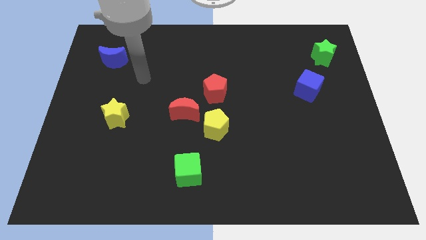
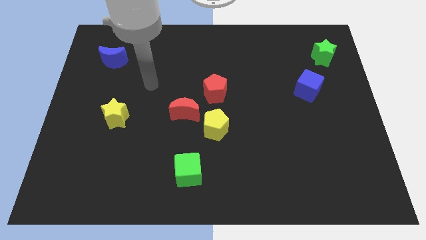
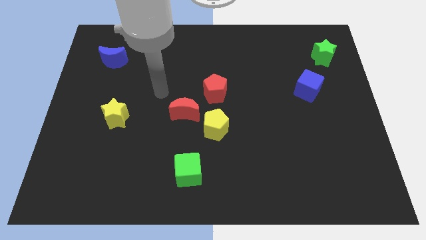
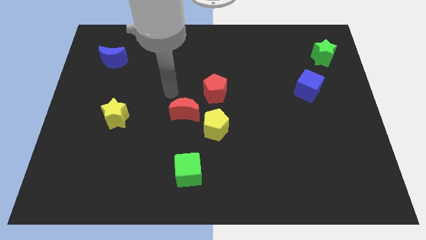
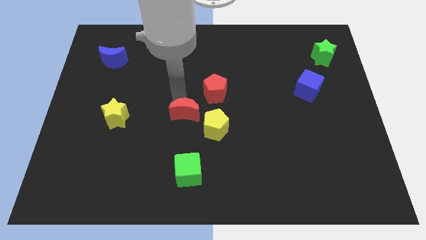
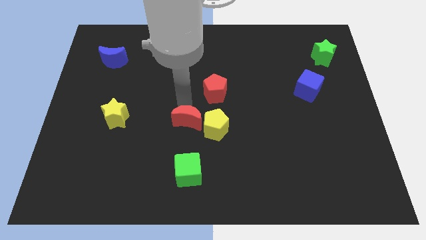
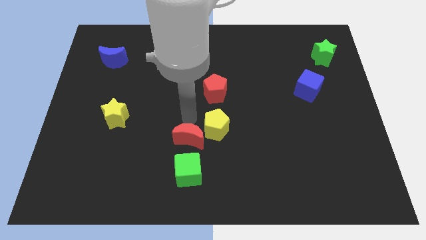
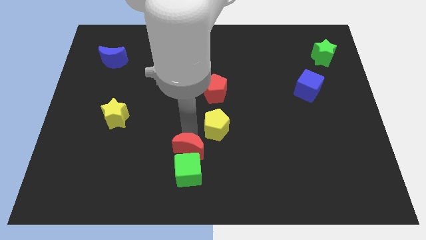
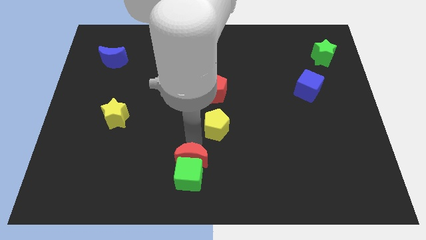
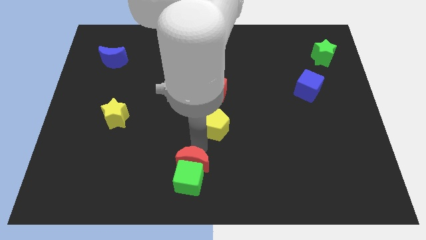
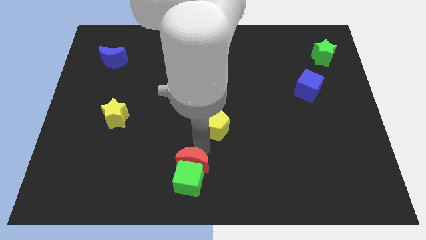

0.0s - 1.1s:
pull the yellow pentagon apart from the red moon

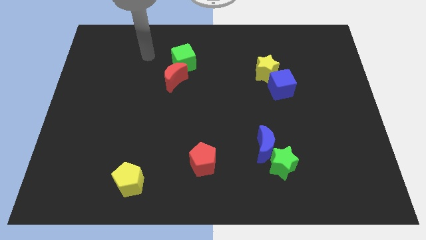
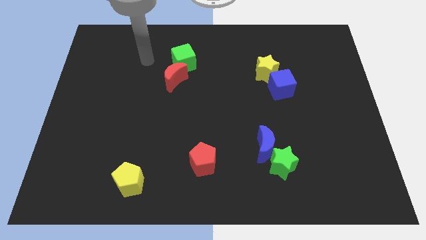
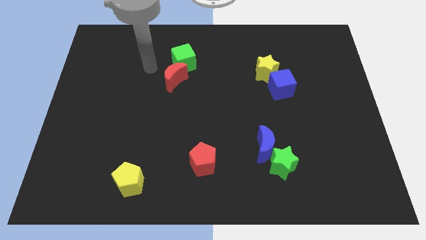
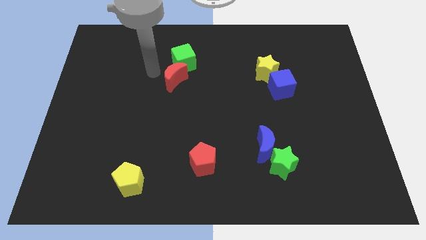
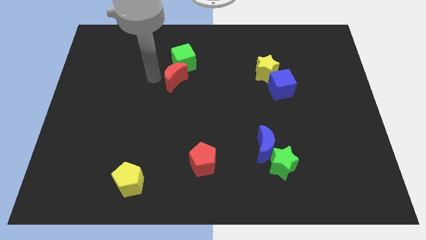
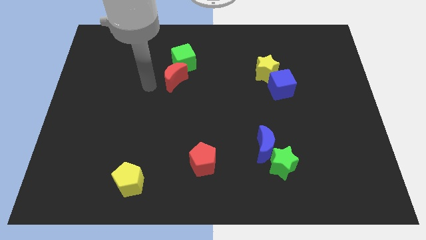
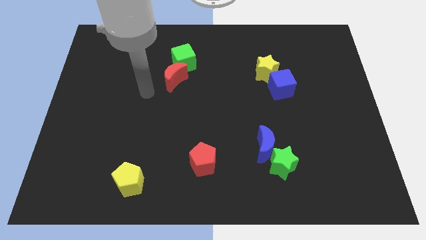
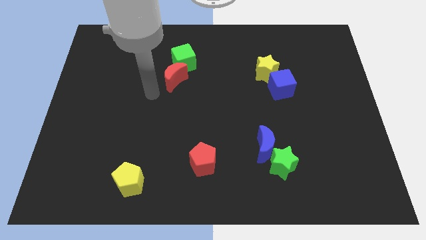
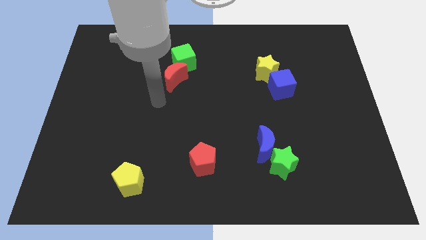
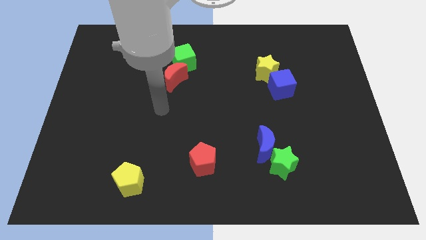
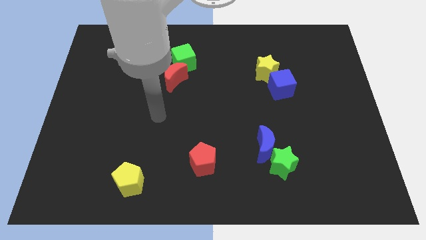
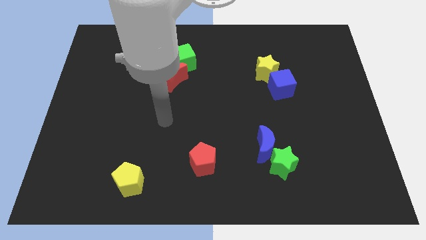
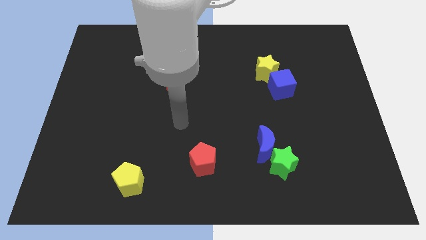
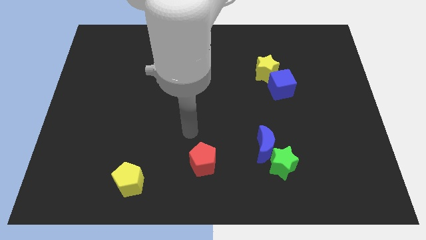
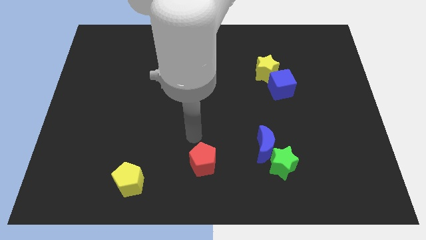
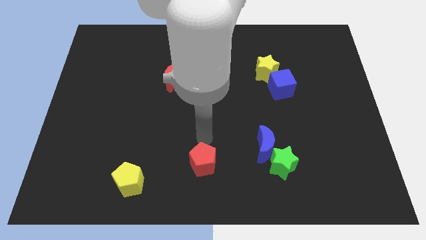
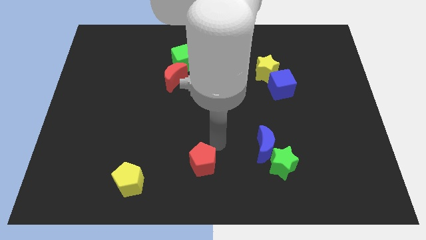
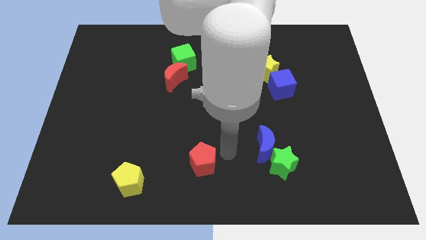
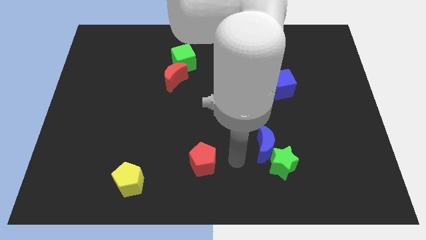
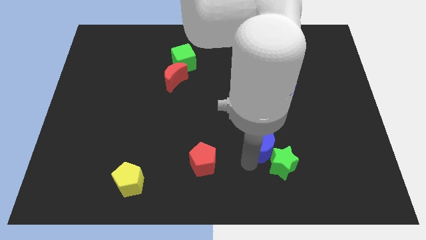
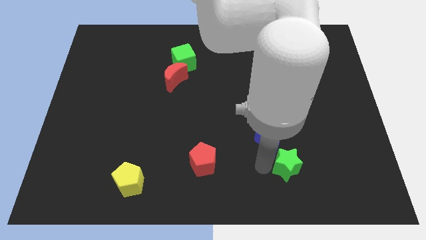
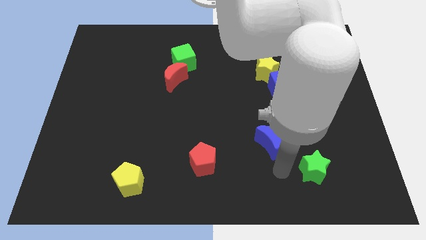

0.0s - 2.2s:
separate the blue moon from the green star

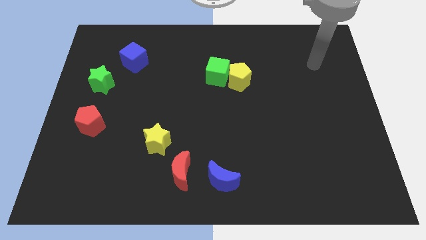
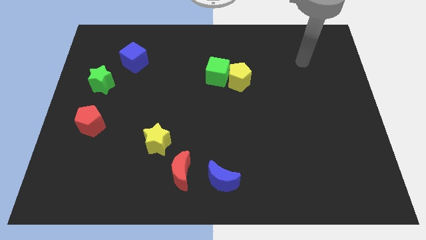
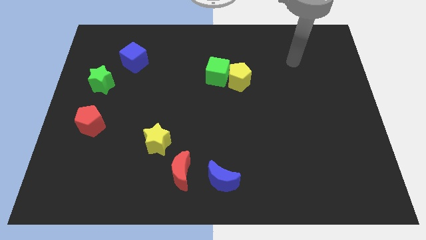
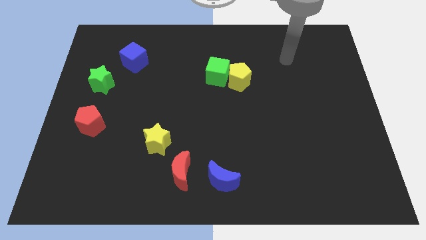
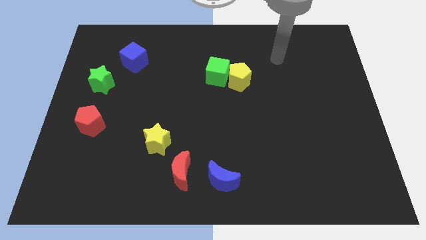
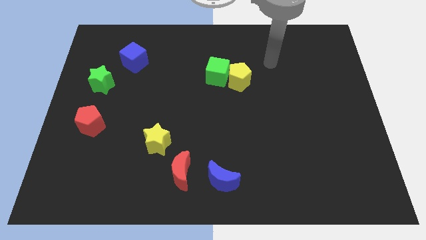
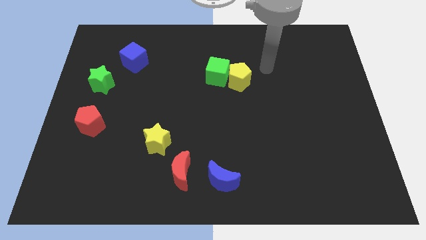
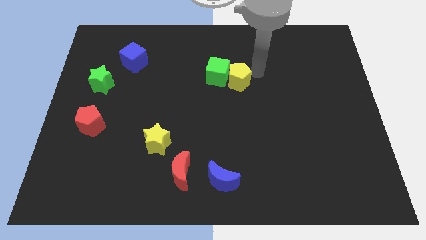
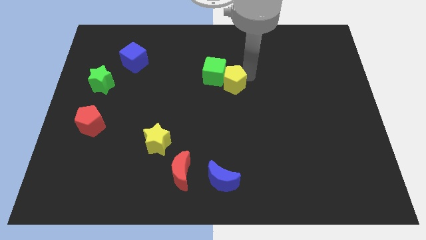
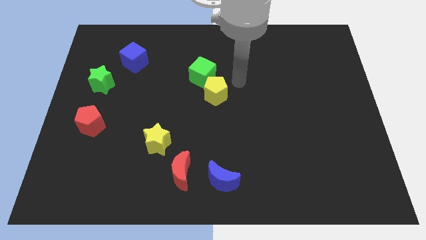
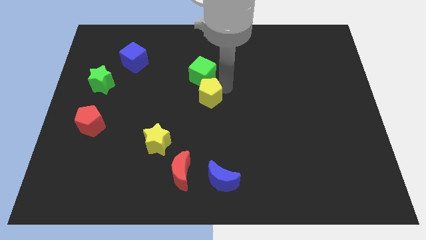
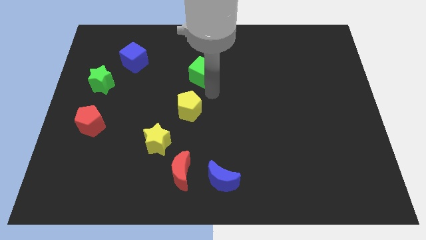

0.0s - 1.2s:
separate the green cube from the yellow pentagon

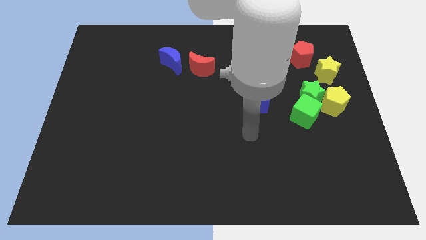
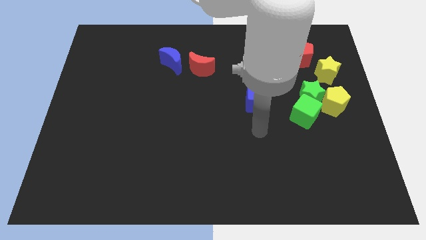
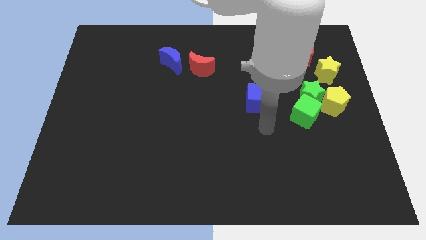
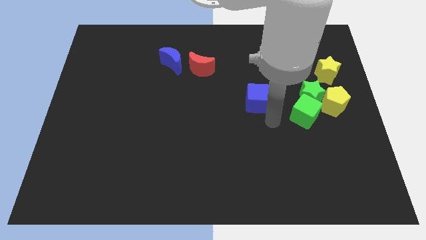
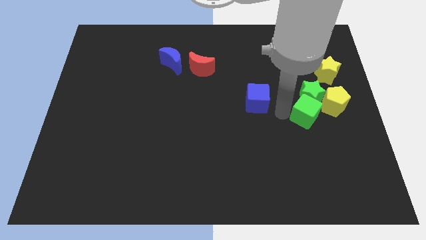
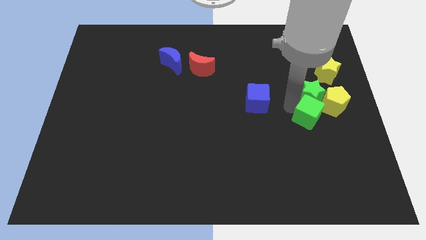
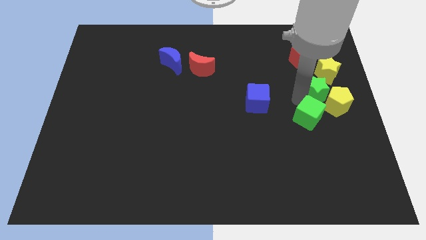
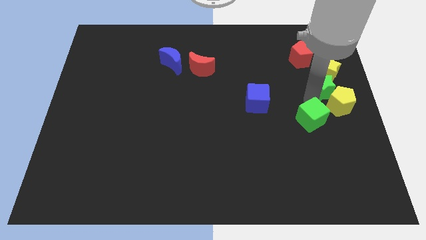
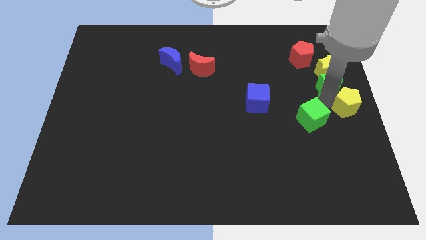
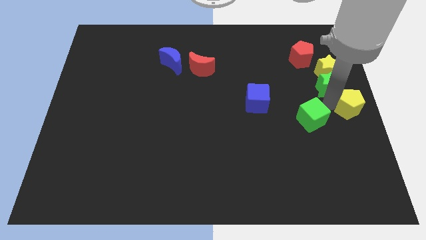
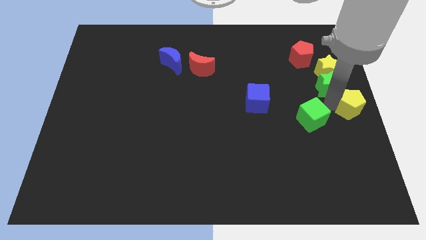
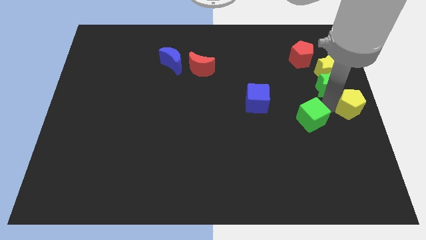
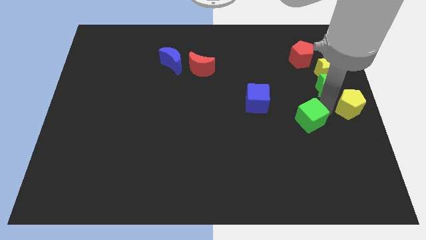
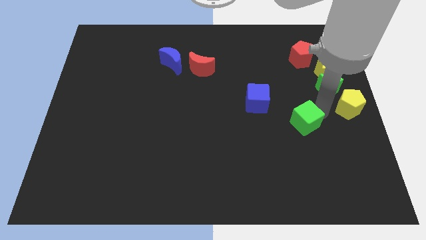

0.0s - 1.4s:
separate the green cube from the green star and yellow pentagon

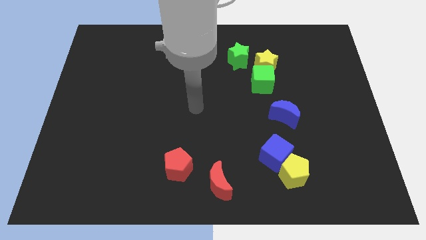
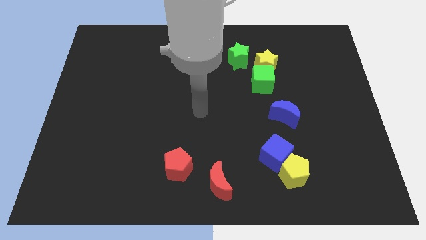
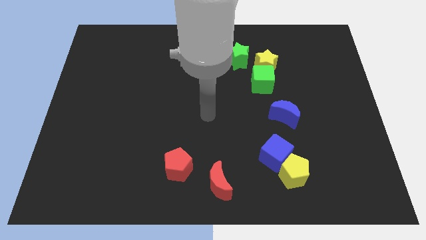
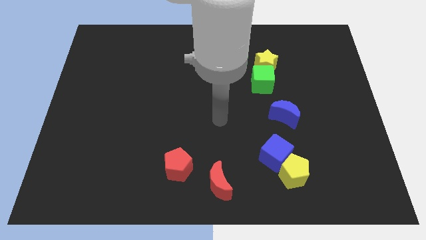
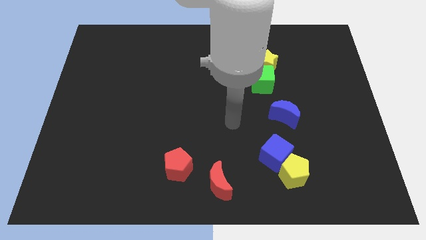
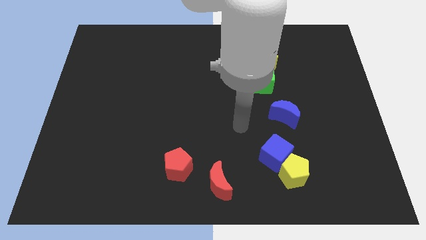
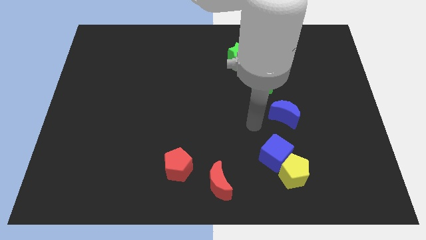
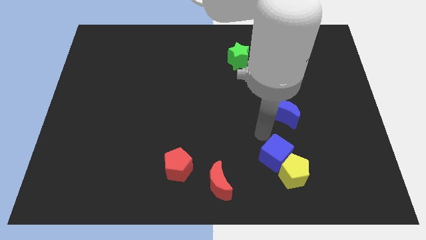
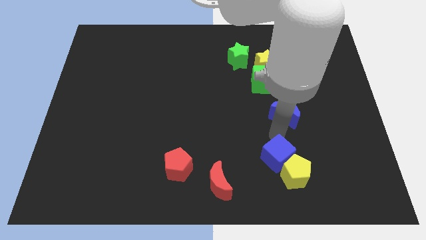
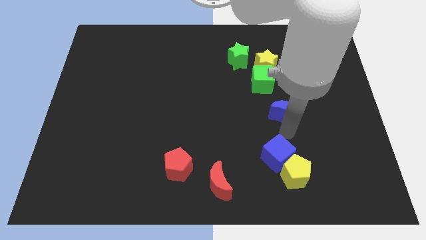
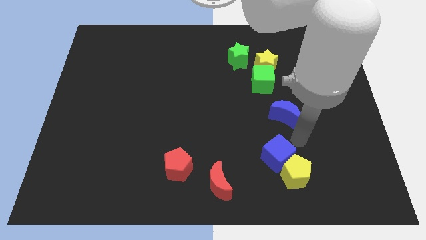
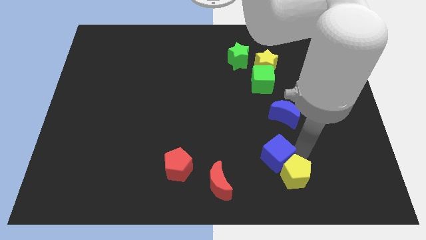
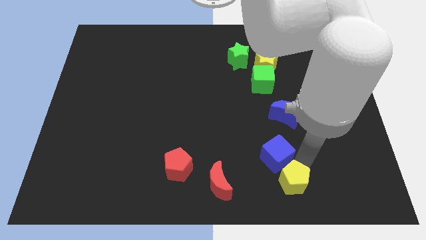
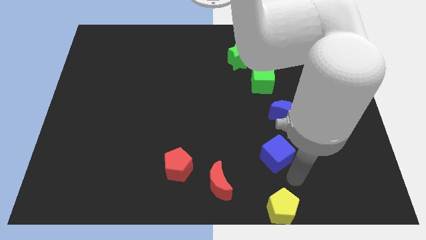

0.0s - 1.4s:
move the blue cube away from the yellow pentagon

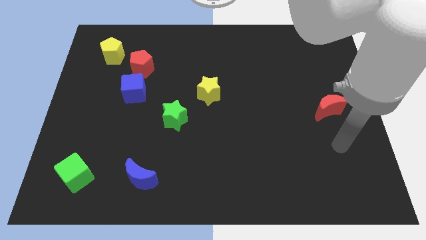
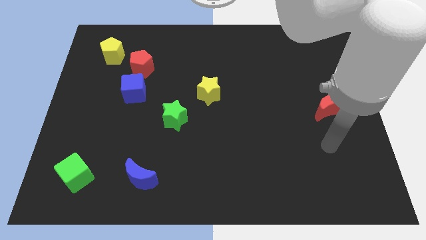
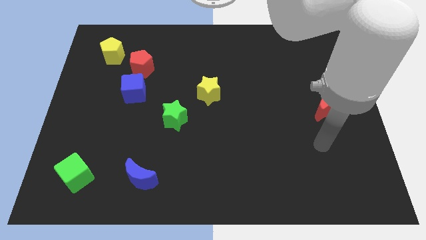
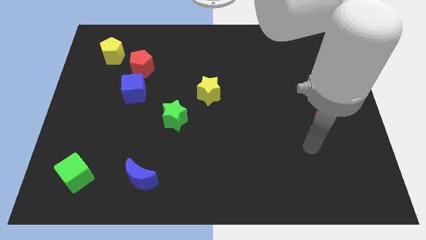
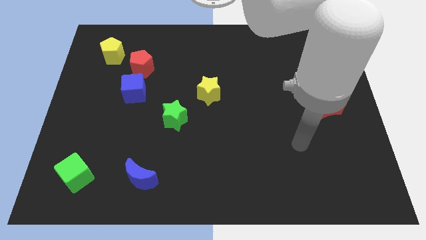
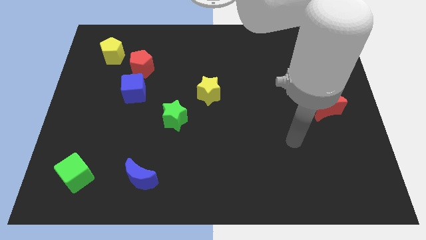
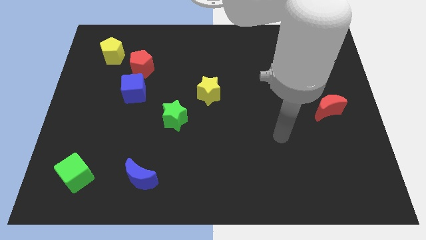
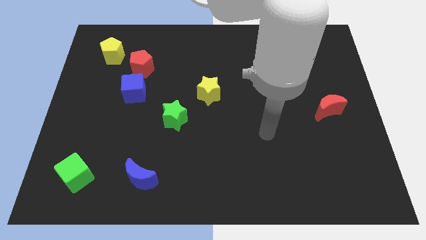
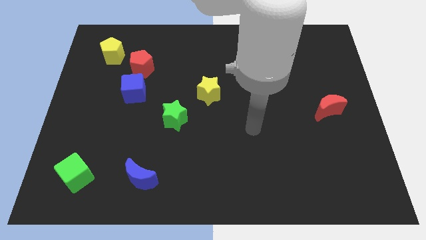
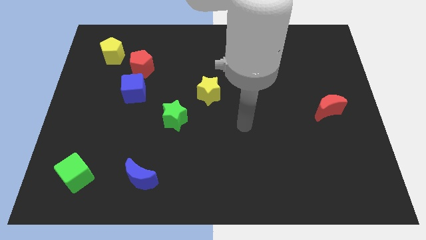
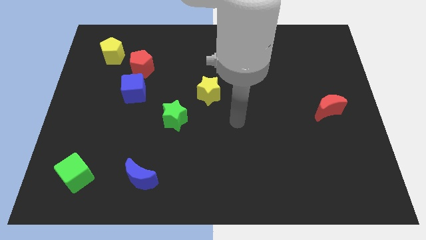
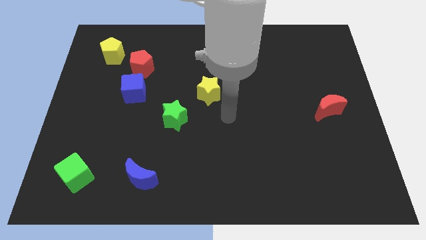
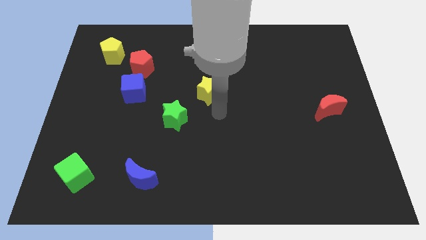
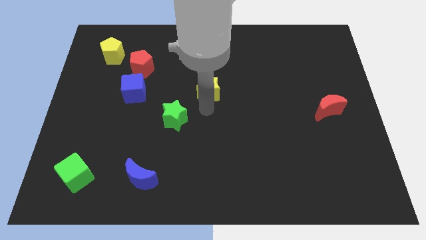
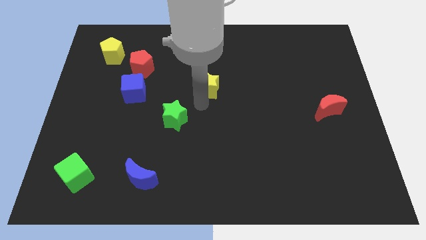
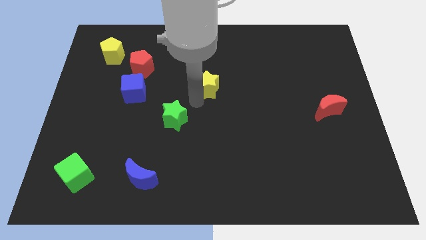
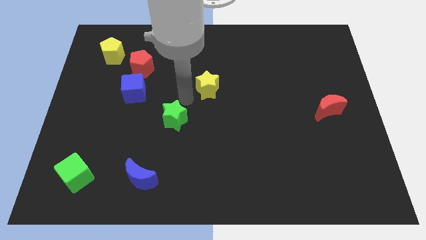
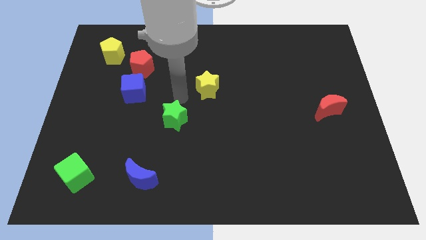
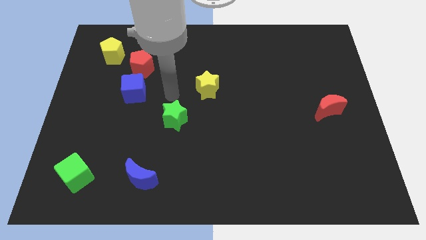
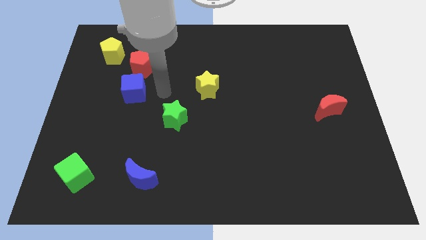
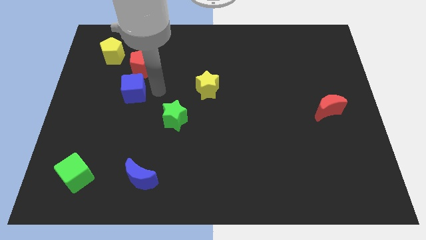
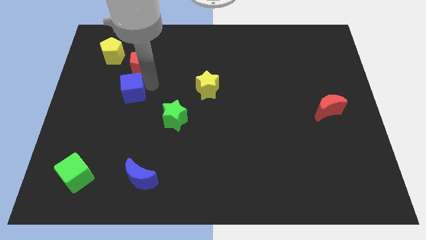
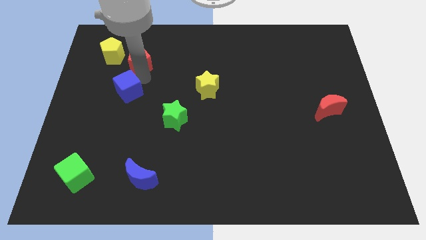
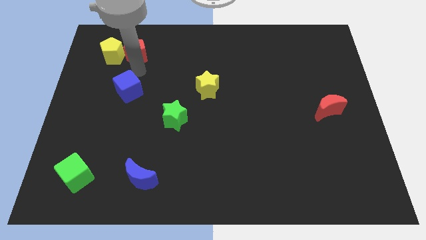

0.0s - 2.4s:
move the blue cube away from the red pentagon
